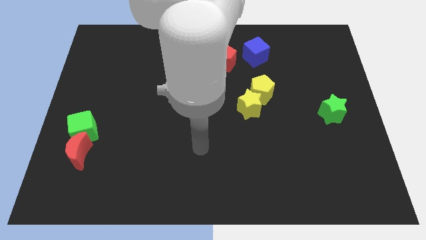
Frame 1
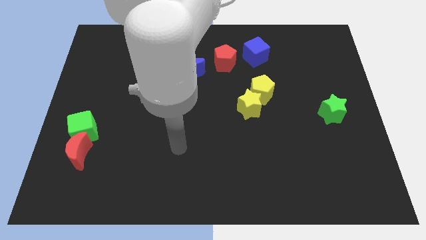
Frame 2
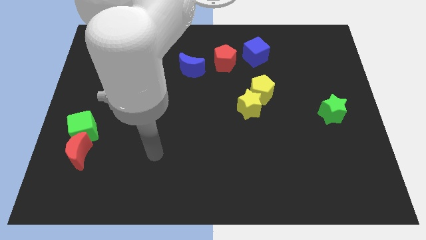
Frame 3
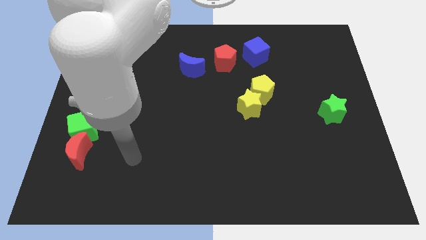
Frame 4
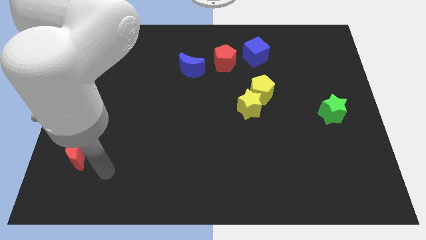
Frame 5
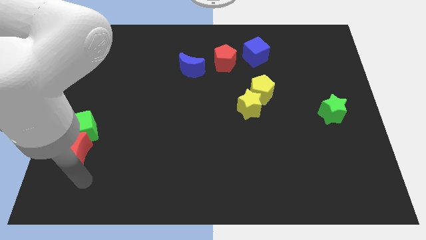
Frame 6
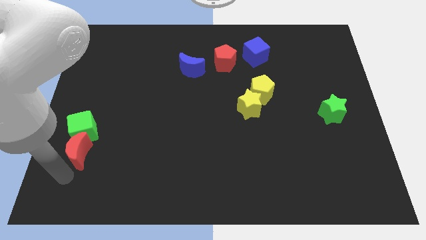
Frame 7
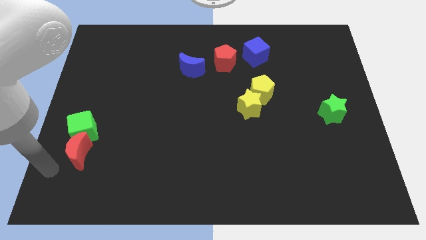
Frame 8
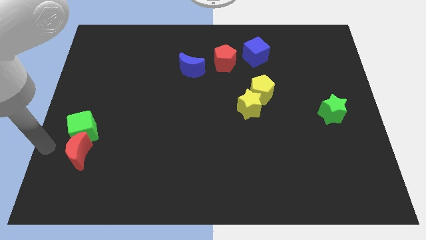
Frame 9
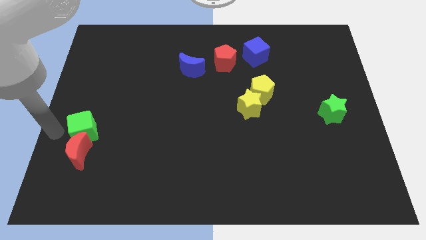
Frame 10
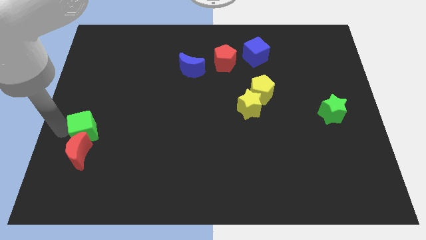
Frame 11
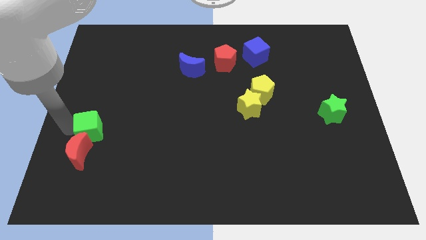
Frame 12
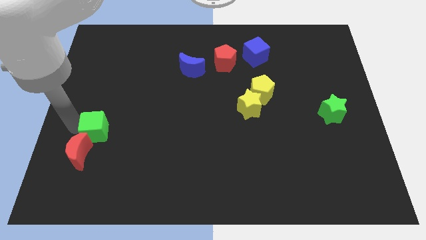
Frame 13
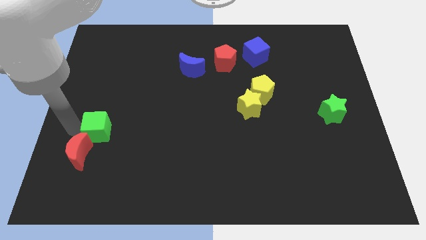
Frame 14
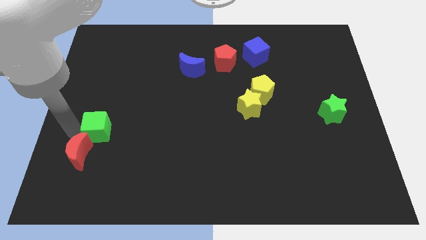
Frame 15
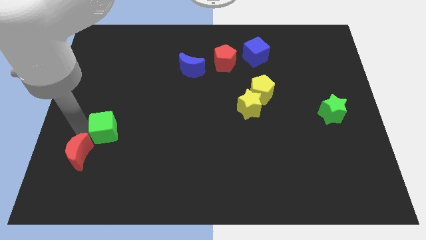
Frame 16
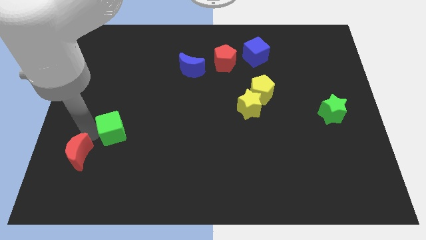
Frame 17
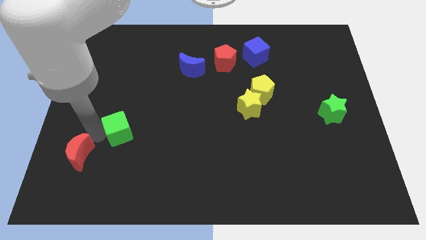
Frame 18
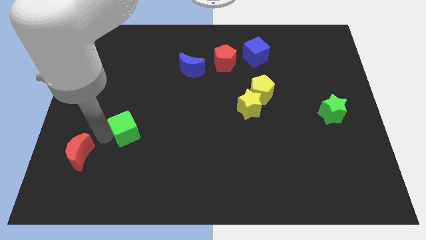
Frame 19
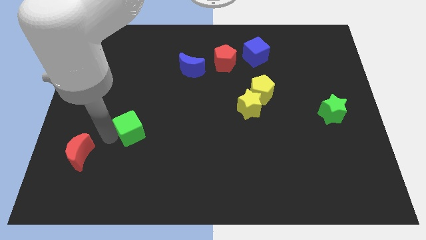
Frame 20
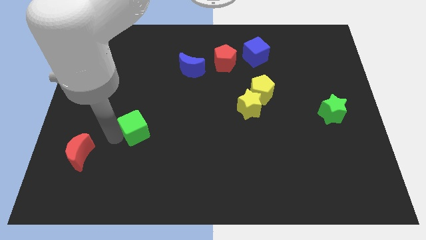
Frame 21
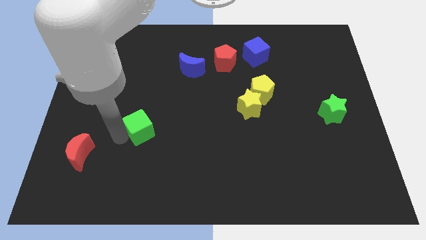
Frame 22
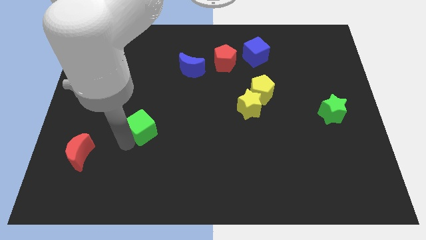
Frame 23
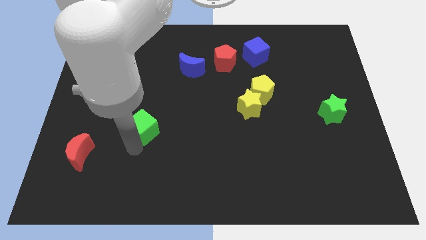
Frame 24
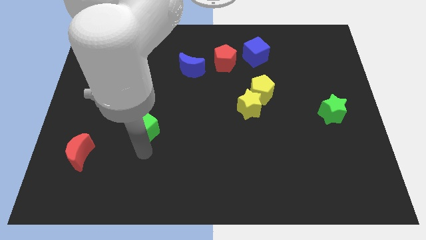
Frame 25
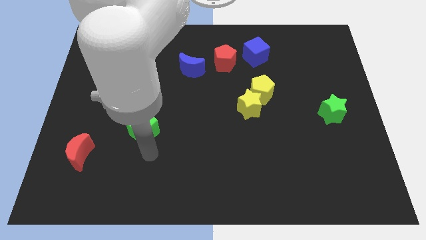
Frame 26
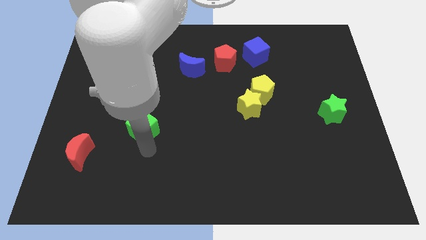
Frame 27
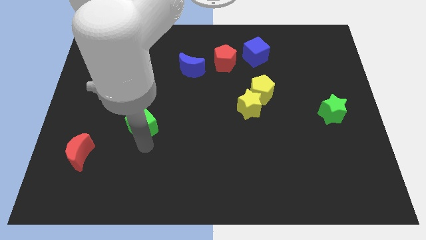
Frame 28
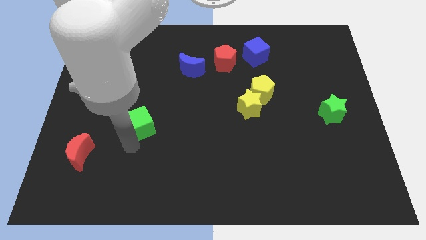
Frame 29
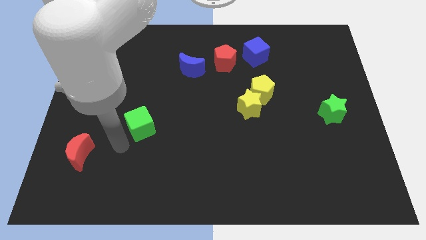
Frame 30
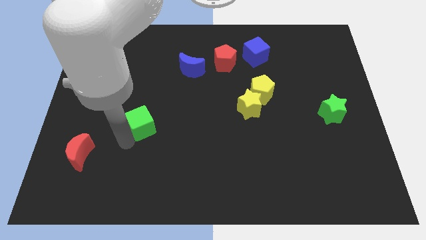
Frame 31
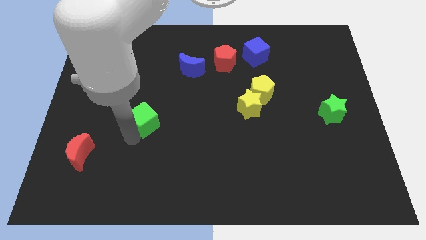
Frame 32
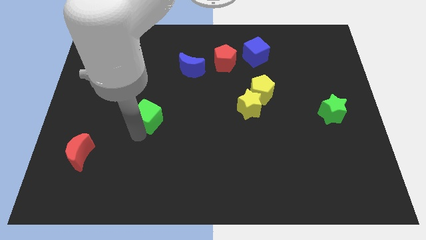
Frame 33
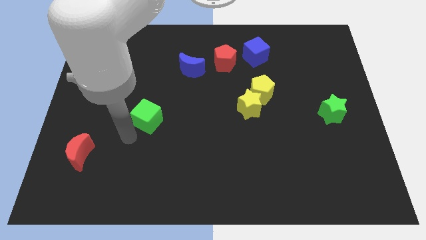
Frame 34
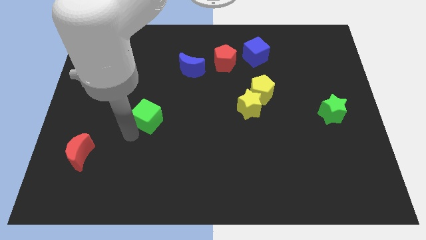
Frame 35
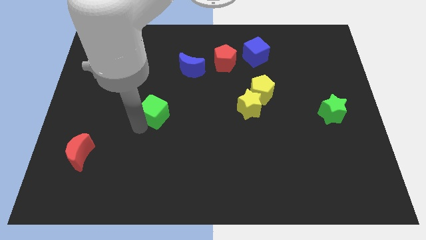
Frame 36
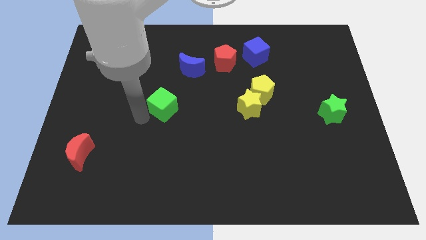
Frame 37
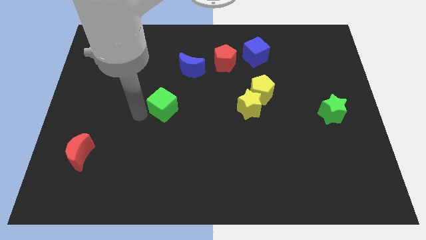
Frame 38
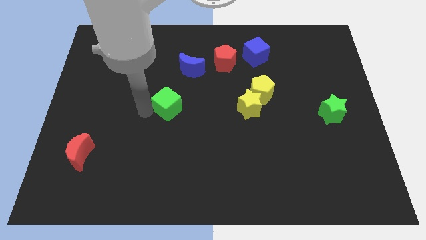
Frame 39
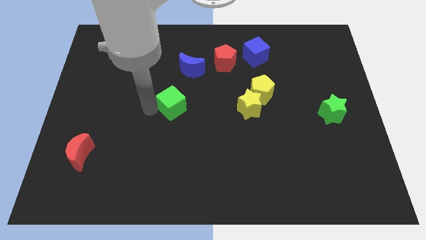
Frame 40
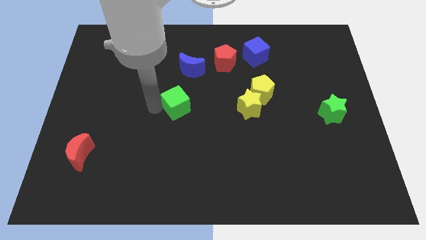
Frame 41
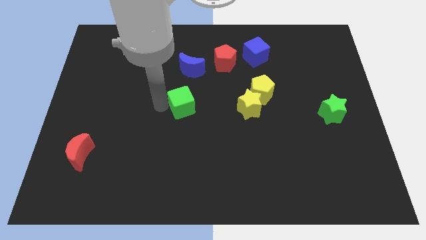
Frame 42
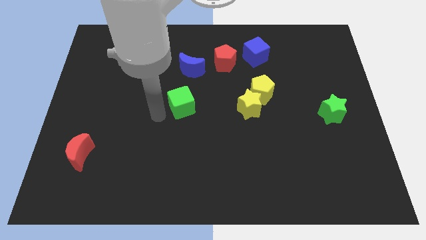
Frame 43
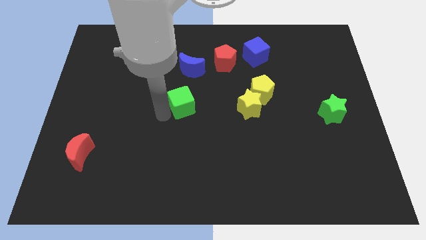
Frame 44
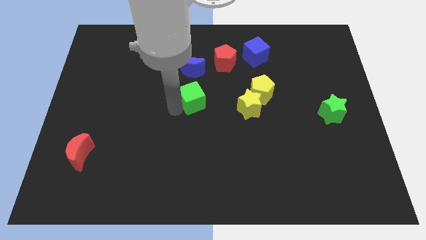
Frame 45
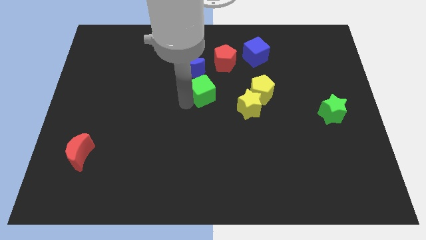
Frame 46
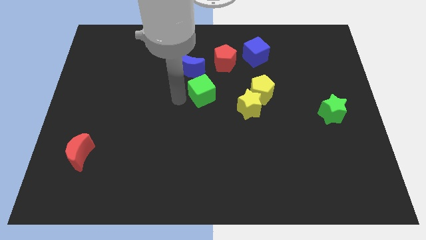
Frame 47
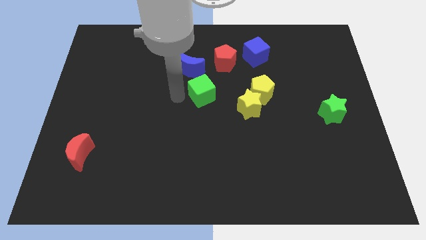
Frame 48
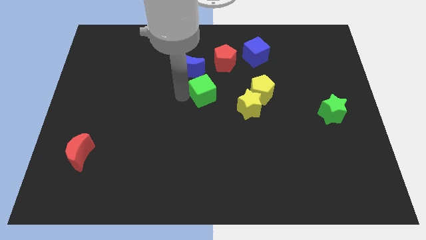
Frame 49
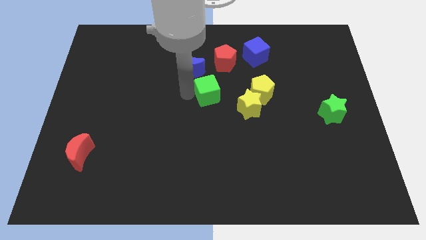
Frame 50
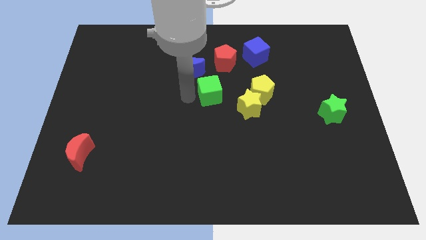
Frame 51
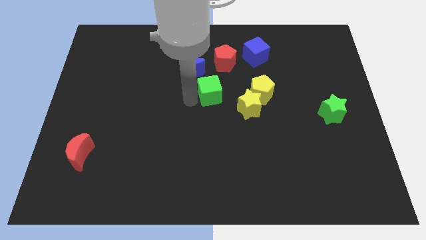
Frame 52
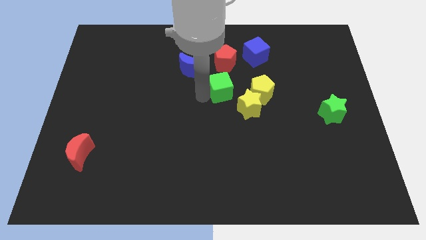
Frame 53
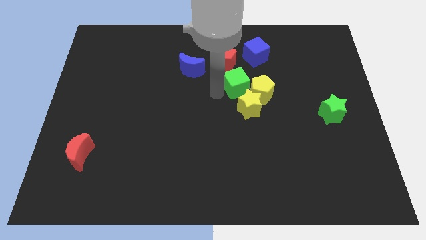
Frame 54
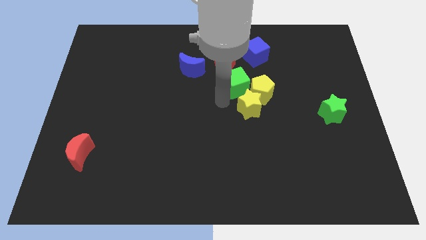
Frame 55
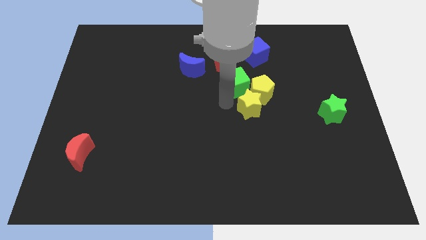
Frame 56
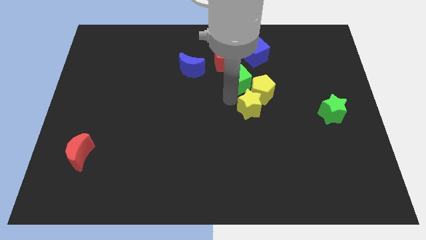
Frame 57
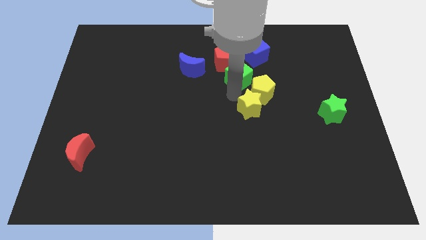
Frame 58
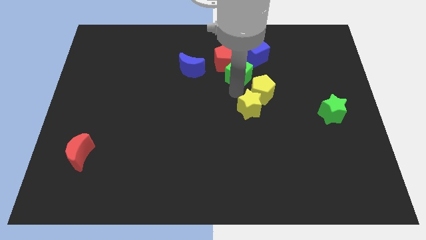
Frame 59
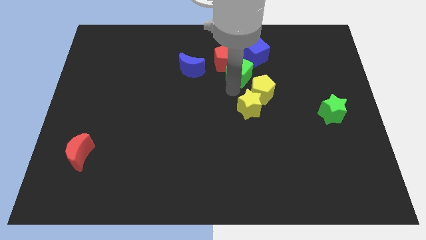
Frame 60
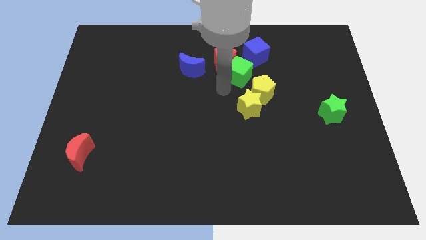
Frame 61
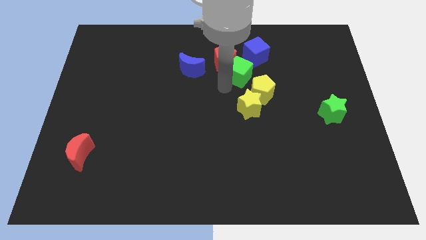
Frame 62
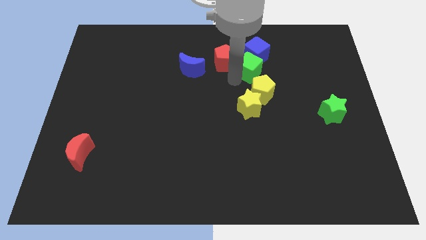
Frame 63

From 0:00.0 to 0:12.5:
put the green cube to the blue cube

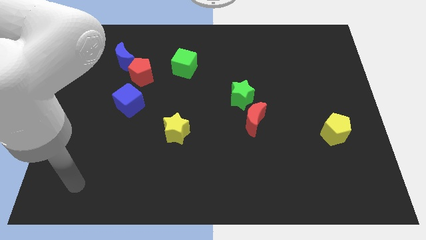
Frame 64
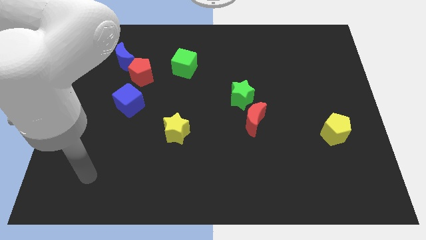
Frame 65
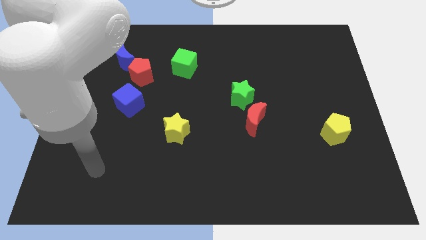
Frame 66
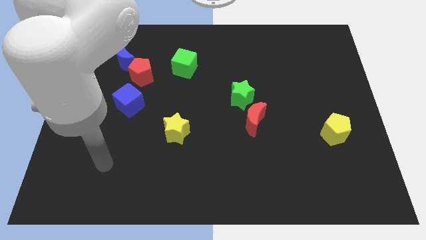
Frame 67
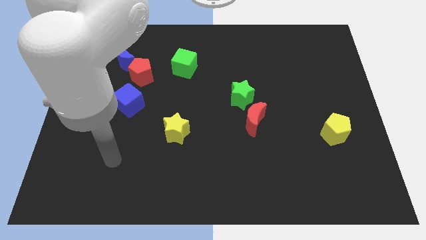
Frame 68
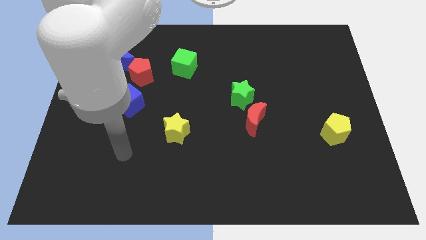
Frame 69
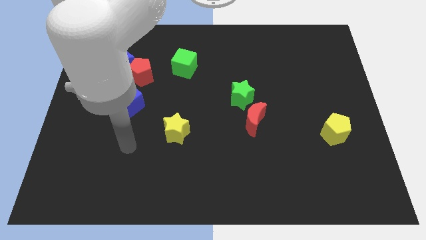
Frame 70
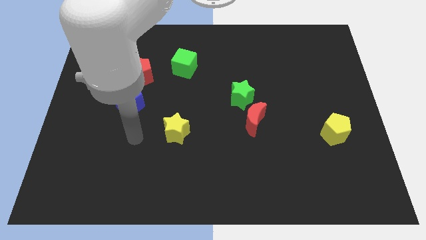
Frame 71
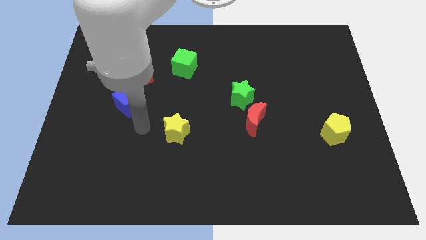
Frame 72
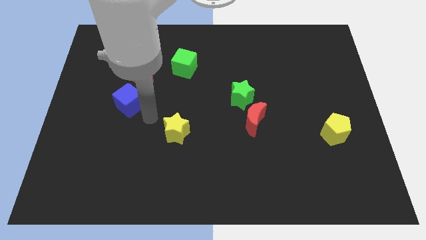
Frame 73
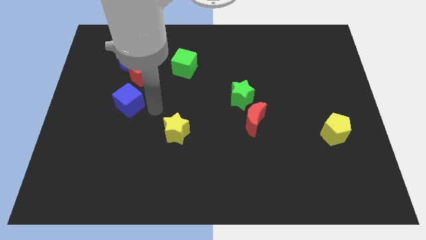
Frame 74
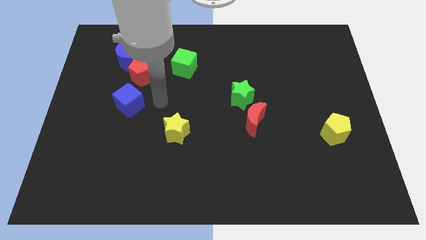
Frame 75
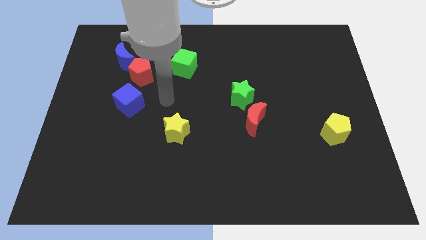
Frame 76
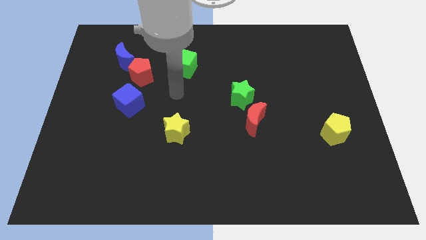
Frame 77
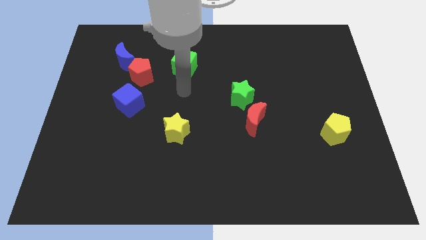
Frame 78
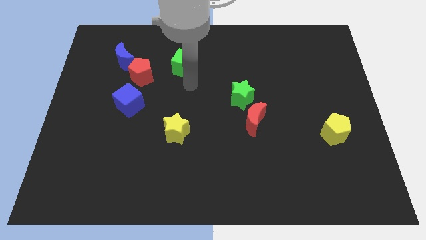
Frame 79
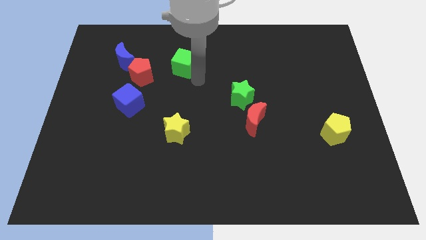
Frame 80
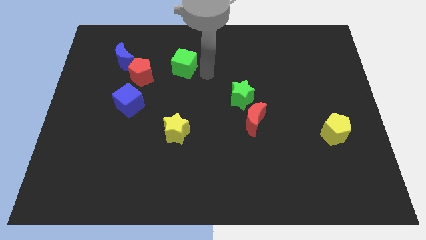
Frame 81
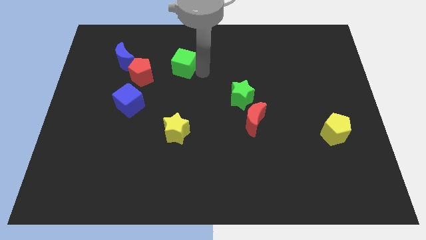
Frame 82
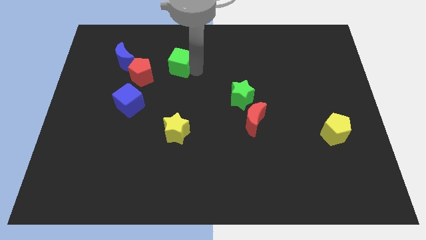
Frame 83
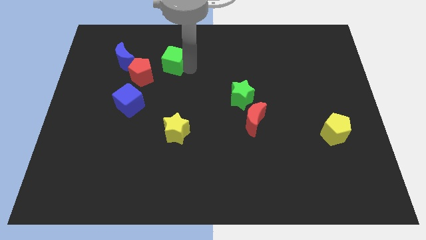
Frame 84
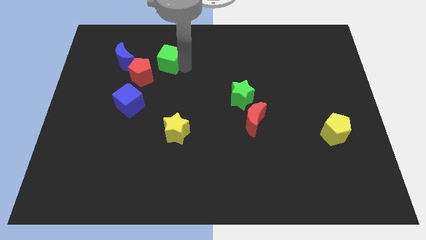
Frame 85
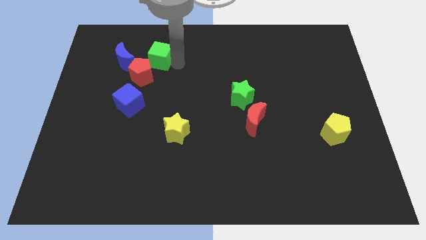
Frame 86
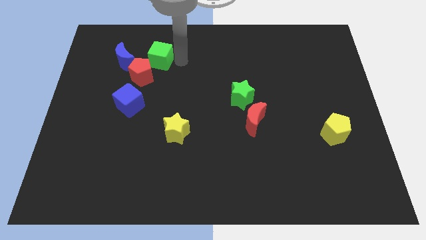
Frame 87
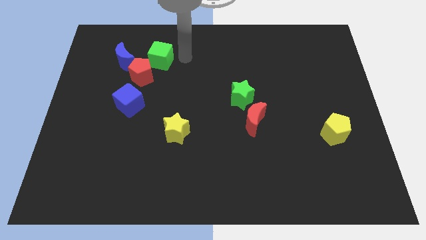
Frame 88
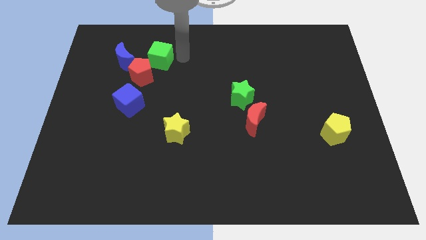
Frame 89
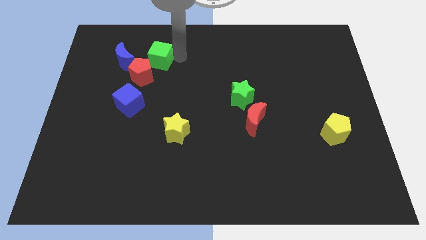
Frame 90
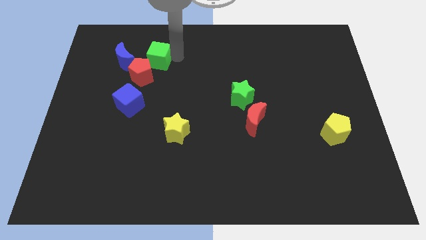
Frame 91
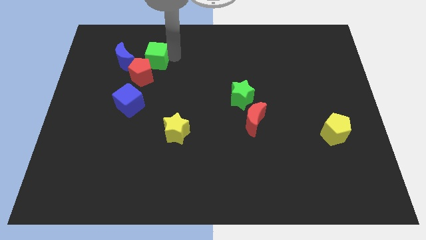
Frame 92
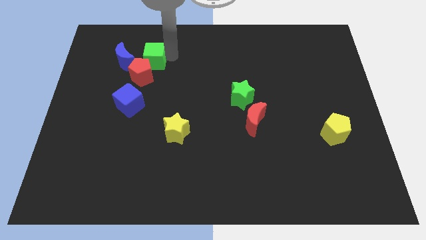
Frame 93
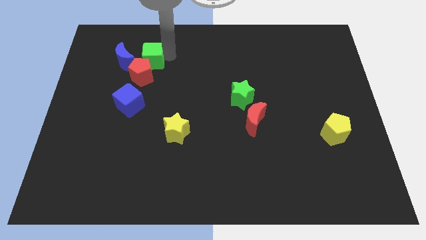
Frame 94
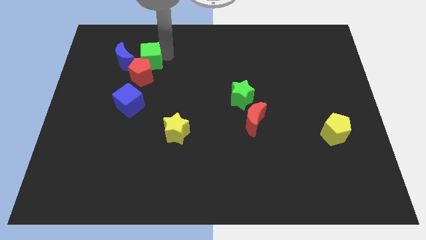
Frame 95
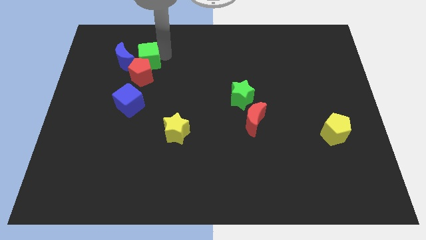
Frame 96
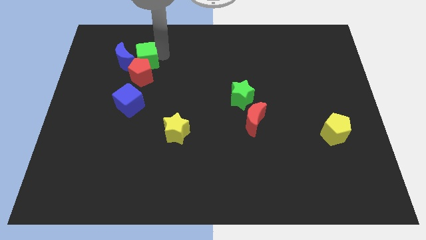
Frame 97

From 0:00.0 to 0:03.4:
move the green cube towards the blue moon
